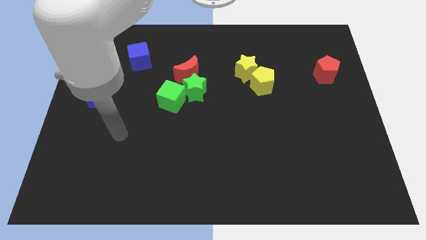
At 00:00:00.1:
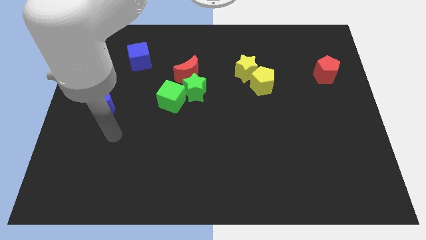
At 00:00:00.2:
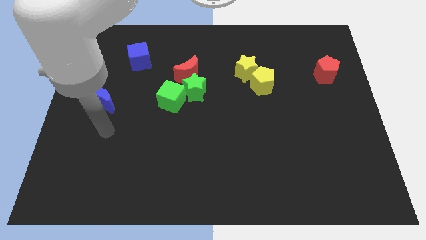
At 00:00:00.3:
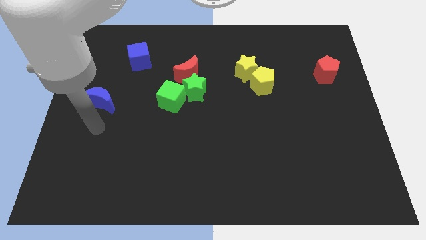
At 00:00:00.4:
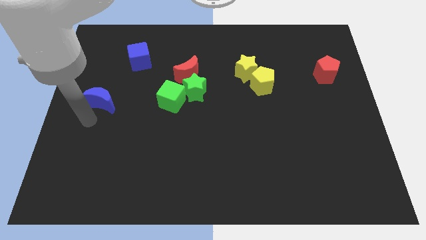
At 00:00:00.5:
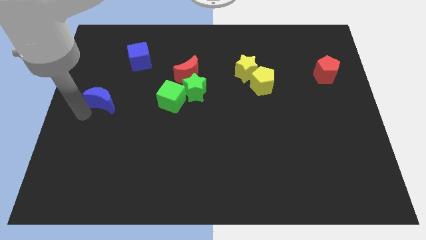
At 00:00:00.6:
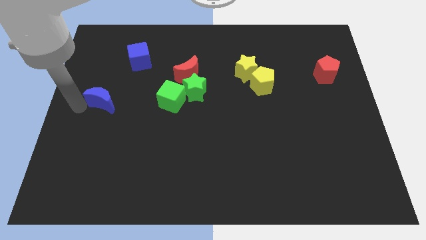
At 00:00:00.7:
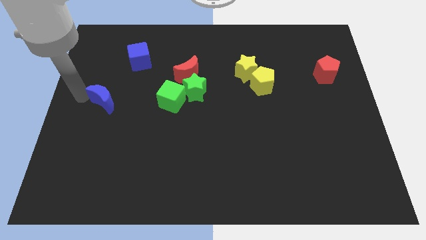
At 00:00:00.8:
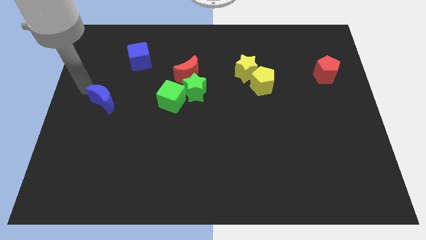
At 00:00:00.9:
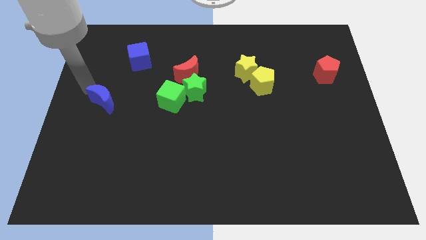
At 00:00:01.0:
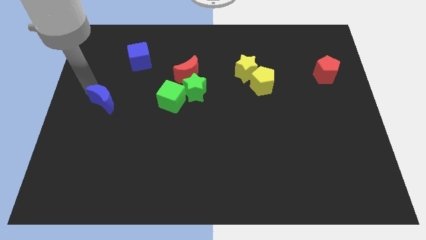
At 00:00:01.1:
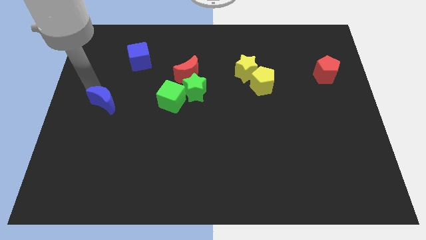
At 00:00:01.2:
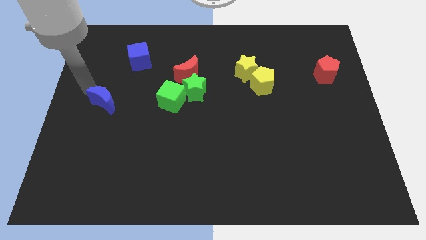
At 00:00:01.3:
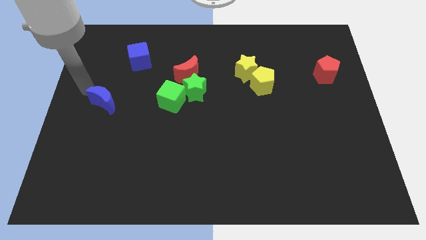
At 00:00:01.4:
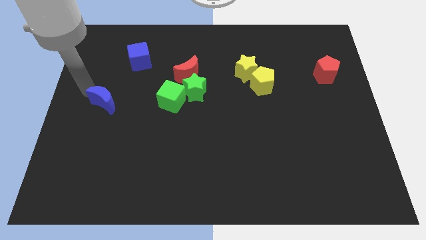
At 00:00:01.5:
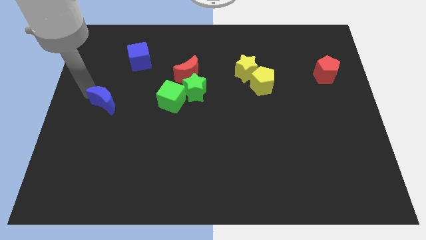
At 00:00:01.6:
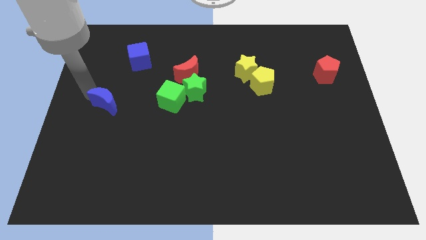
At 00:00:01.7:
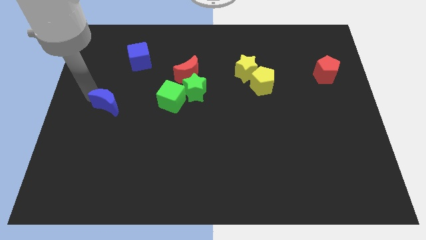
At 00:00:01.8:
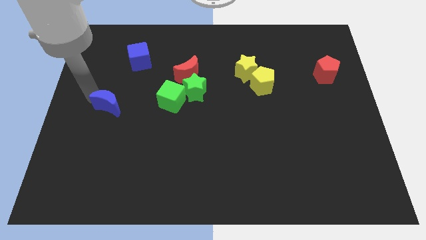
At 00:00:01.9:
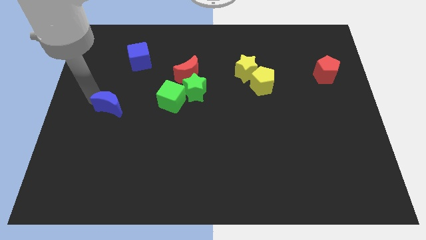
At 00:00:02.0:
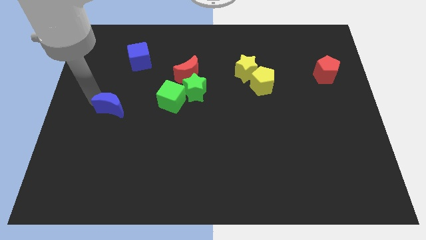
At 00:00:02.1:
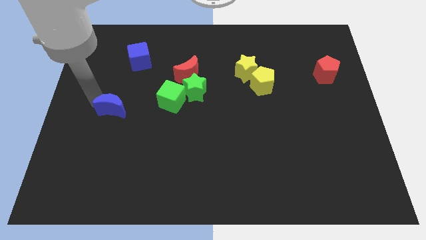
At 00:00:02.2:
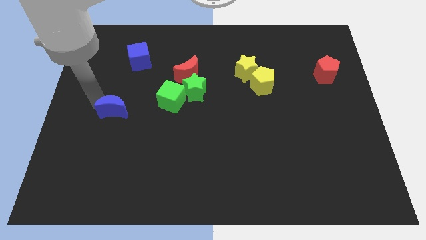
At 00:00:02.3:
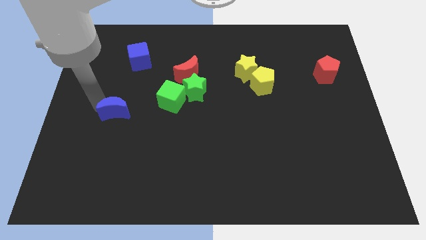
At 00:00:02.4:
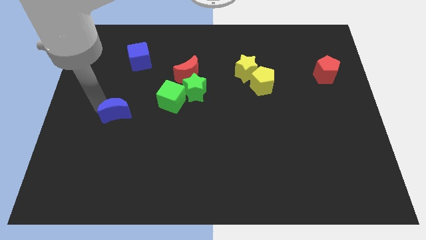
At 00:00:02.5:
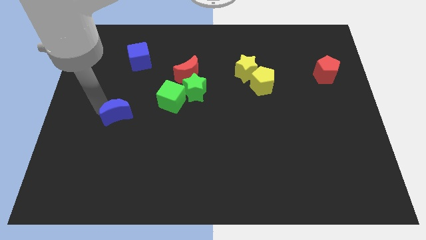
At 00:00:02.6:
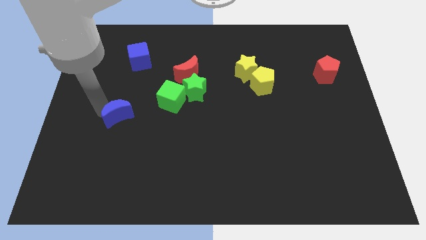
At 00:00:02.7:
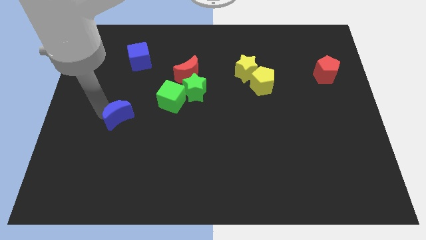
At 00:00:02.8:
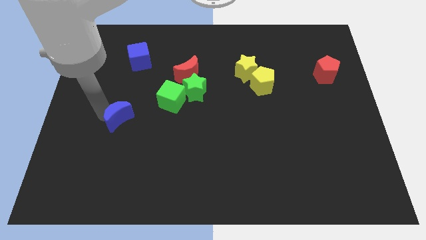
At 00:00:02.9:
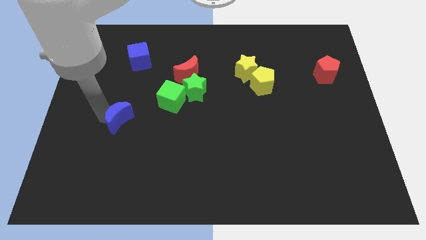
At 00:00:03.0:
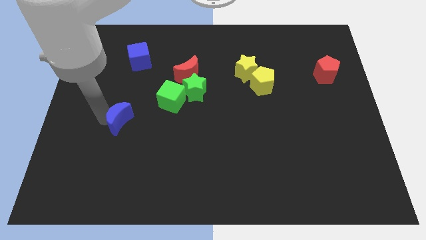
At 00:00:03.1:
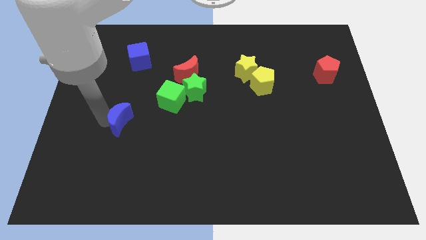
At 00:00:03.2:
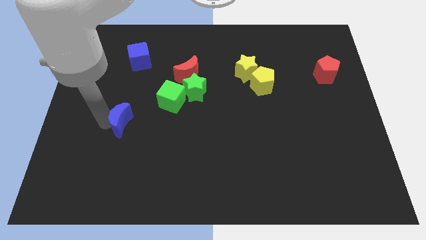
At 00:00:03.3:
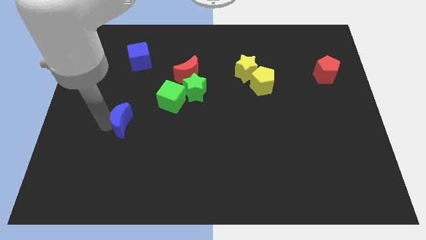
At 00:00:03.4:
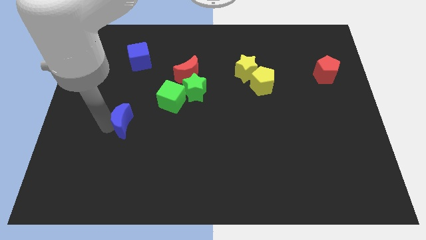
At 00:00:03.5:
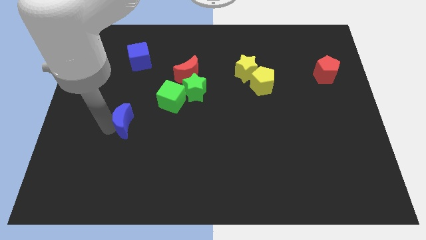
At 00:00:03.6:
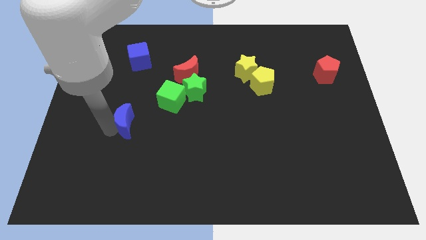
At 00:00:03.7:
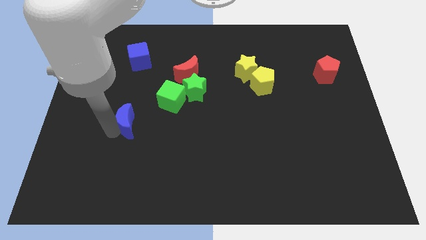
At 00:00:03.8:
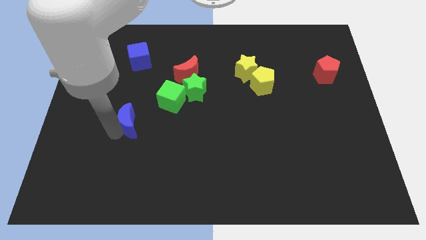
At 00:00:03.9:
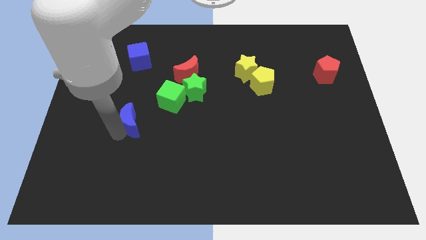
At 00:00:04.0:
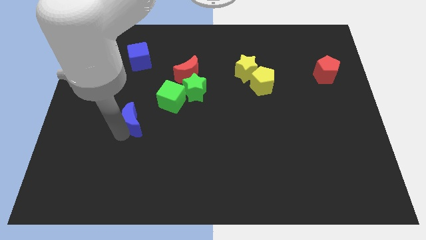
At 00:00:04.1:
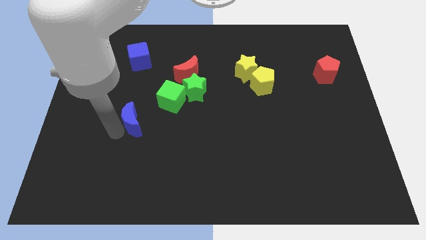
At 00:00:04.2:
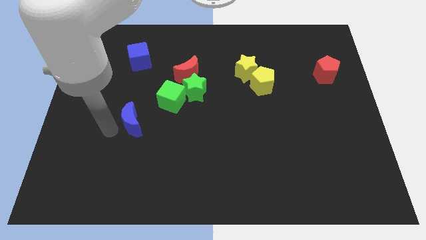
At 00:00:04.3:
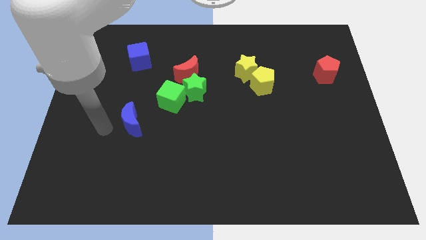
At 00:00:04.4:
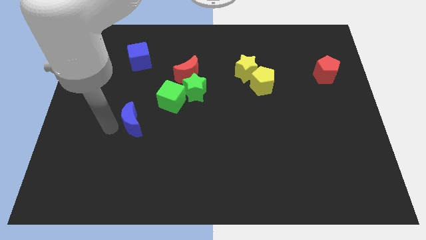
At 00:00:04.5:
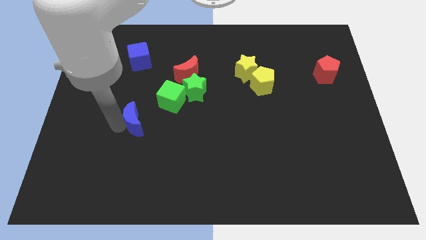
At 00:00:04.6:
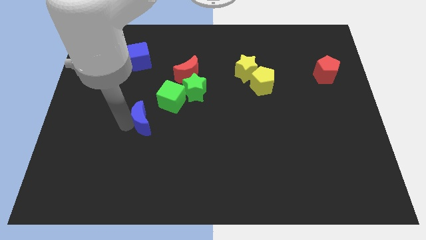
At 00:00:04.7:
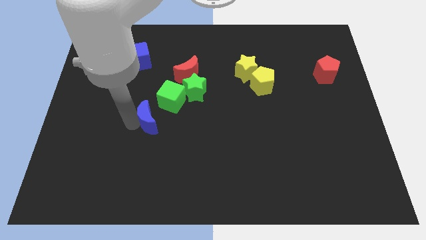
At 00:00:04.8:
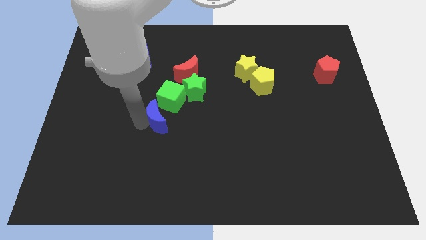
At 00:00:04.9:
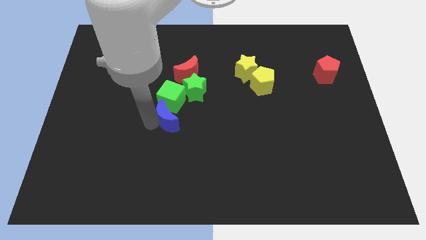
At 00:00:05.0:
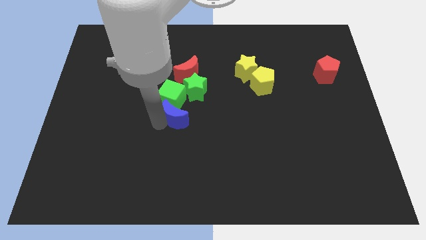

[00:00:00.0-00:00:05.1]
move the blue moon below the red moon

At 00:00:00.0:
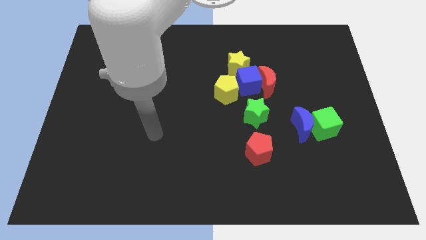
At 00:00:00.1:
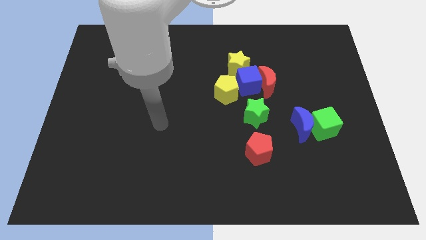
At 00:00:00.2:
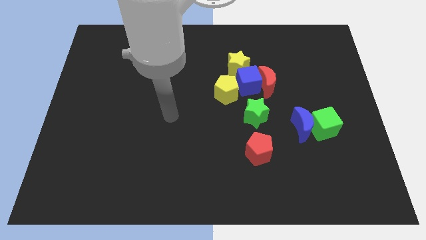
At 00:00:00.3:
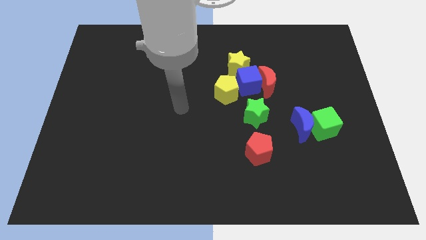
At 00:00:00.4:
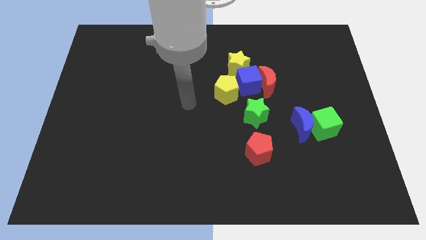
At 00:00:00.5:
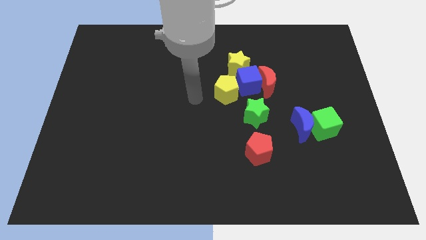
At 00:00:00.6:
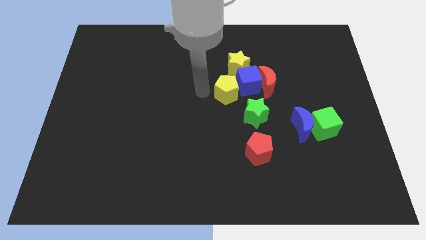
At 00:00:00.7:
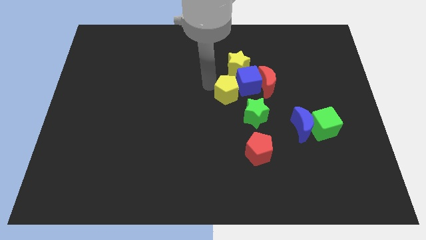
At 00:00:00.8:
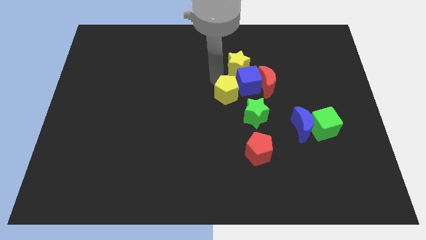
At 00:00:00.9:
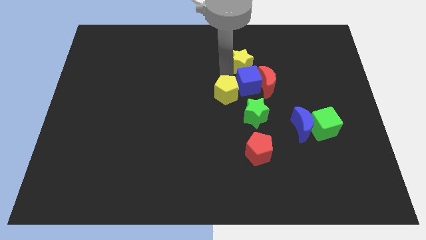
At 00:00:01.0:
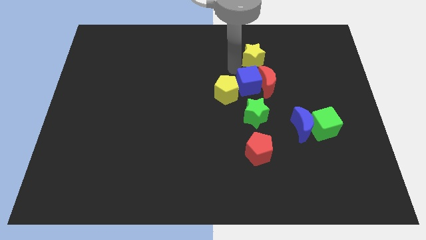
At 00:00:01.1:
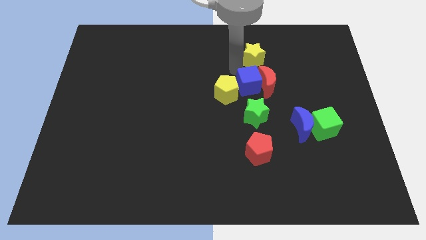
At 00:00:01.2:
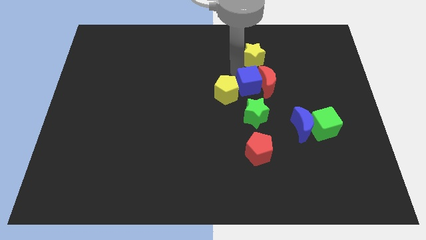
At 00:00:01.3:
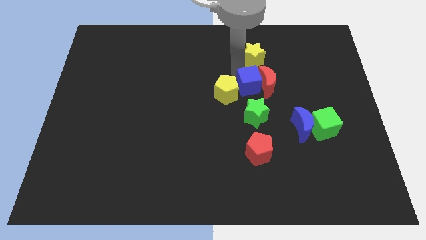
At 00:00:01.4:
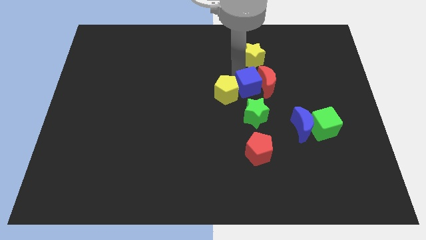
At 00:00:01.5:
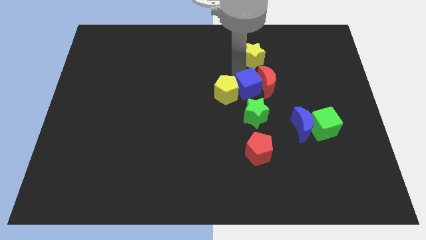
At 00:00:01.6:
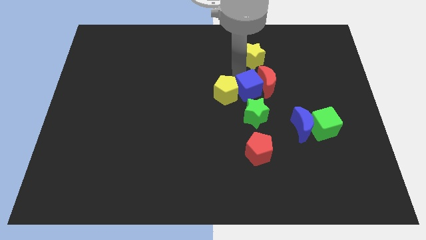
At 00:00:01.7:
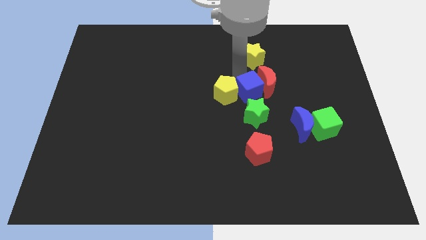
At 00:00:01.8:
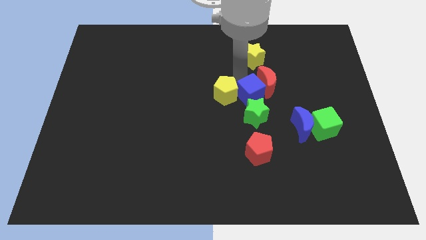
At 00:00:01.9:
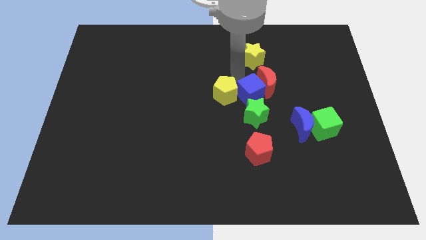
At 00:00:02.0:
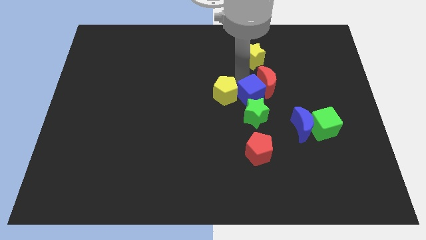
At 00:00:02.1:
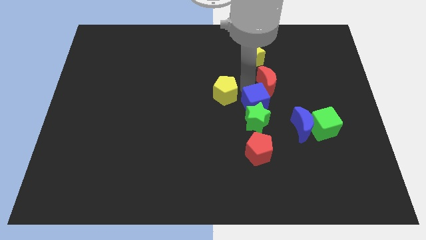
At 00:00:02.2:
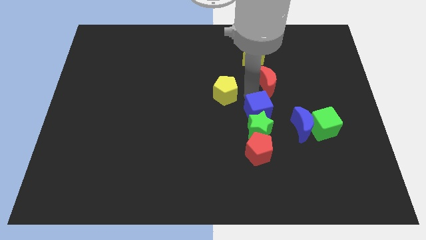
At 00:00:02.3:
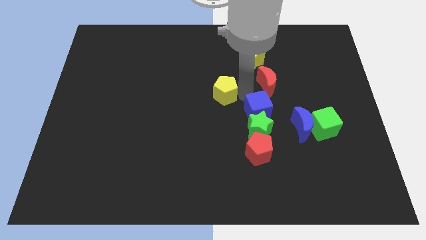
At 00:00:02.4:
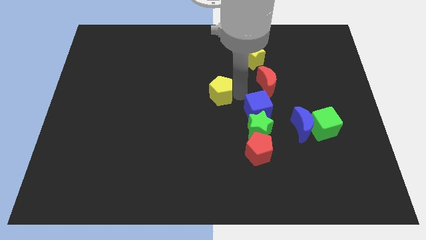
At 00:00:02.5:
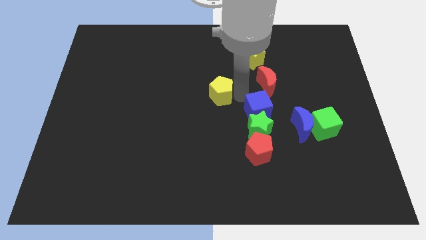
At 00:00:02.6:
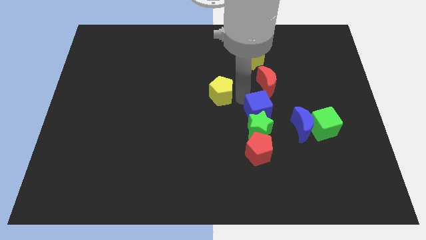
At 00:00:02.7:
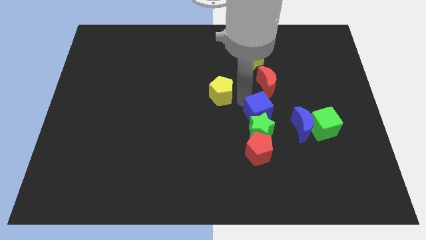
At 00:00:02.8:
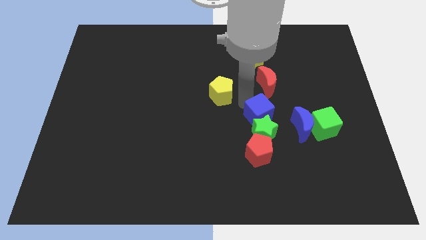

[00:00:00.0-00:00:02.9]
put the blue cube left of the green cube
